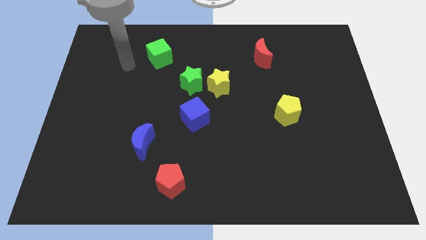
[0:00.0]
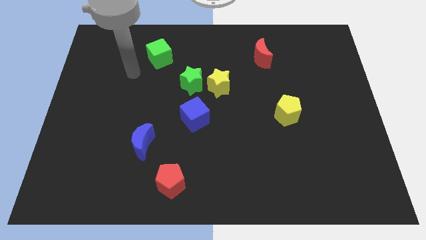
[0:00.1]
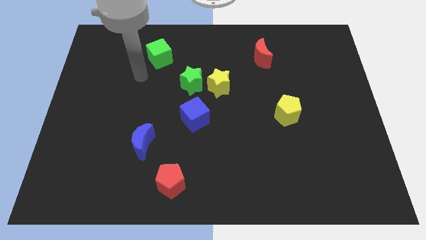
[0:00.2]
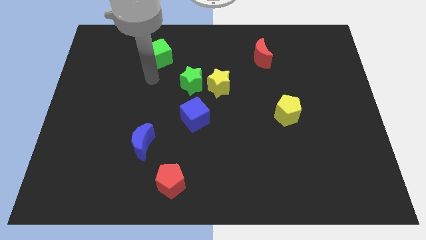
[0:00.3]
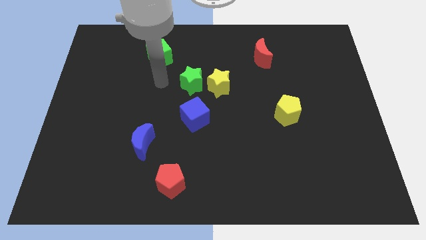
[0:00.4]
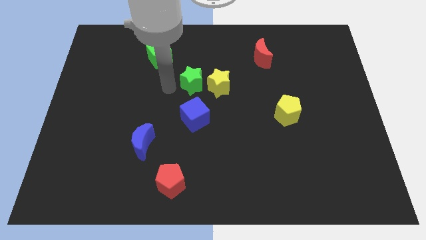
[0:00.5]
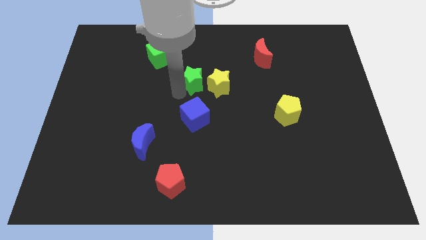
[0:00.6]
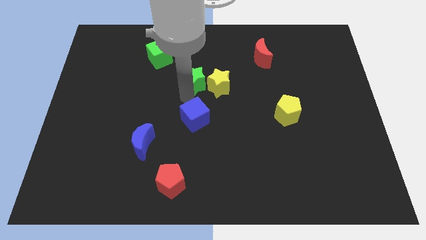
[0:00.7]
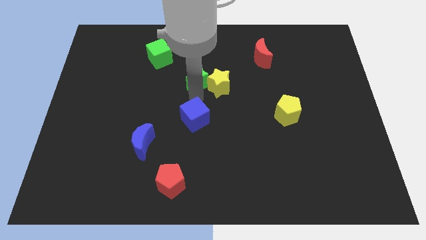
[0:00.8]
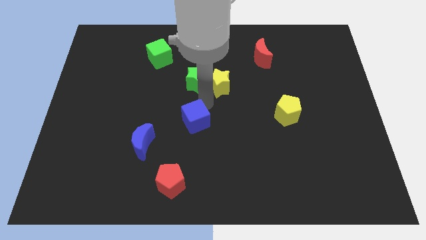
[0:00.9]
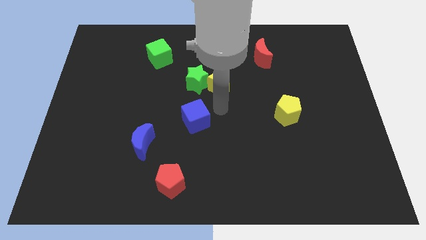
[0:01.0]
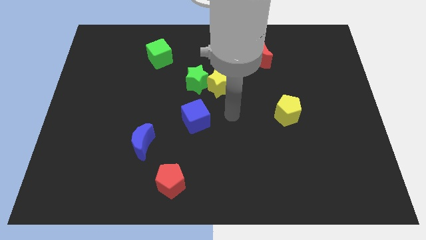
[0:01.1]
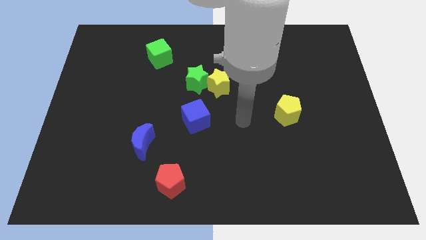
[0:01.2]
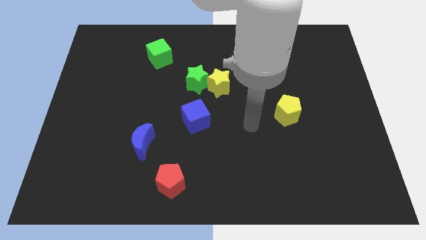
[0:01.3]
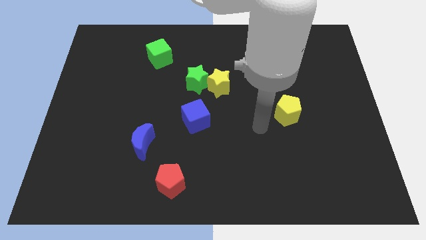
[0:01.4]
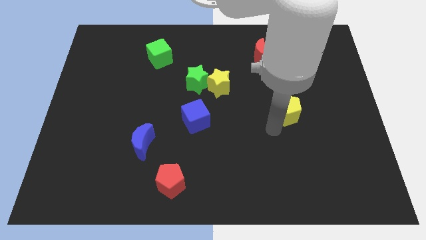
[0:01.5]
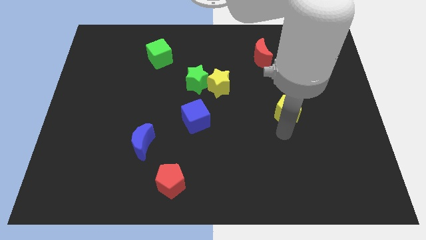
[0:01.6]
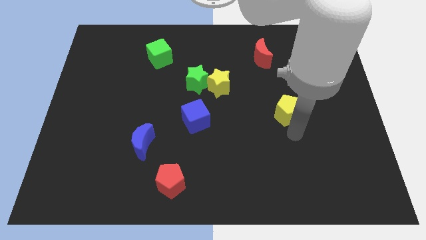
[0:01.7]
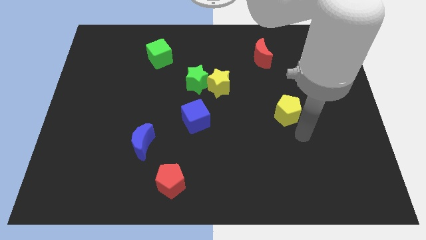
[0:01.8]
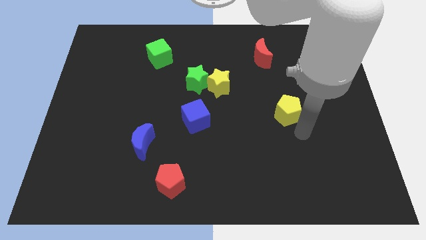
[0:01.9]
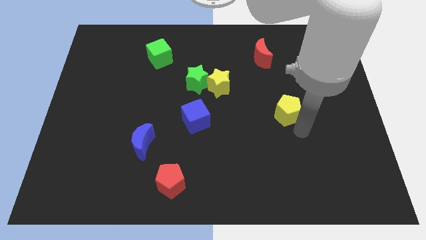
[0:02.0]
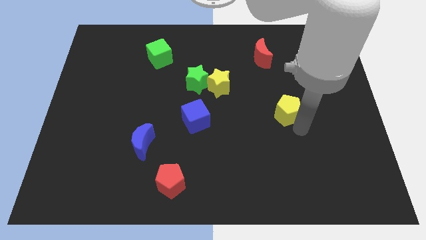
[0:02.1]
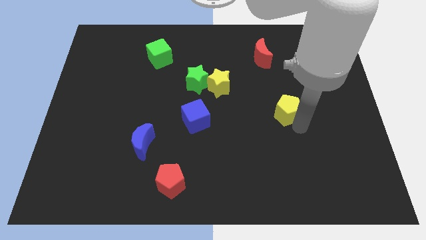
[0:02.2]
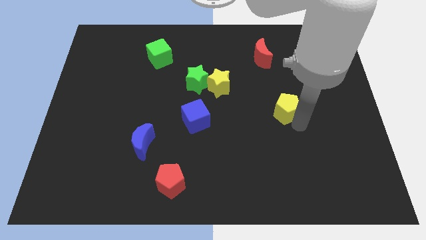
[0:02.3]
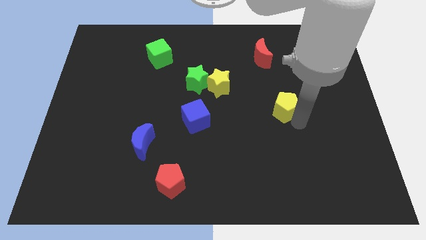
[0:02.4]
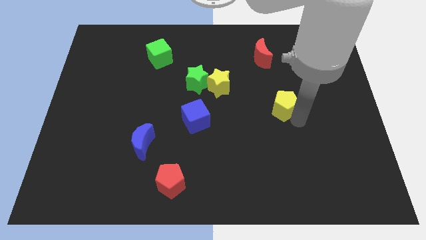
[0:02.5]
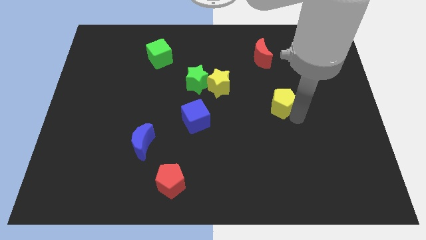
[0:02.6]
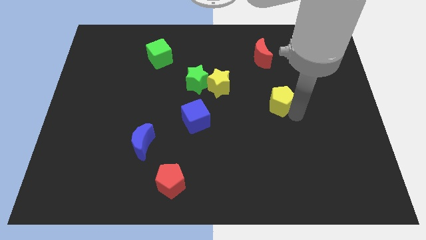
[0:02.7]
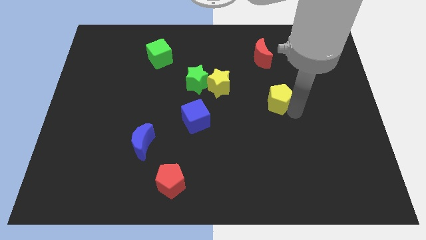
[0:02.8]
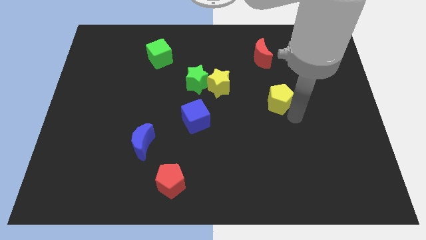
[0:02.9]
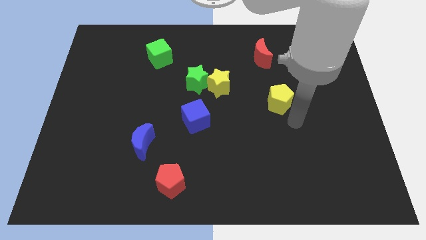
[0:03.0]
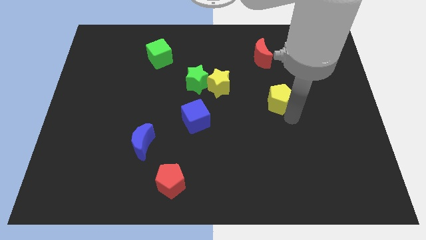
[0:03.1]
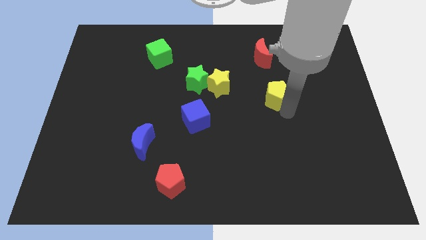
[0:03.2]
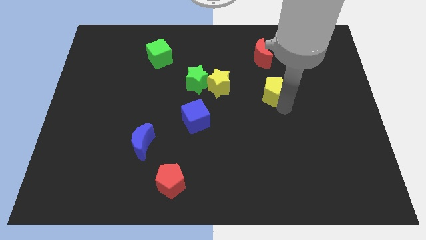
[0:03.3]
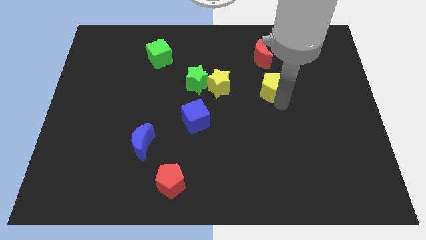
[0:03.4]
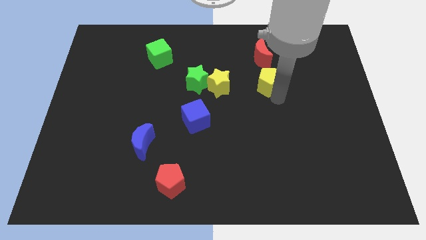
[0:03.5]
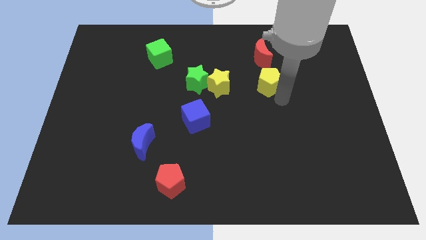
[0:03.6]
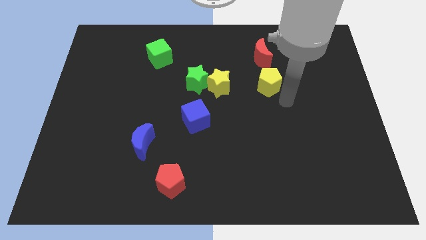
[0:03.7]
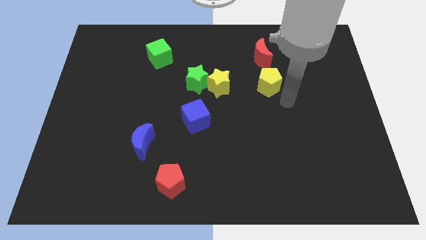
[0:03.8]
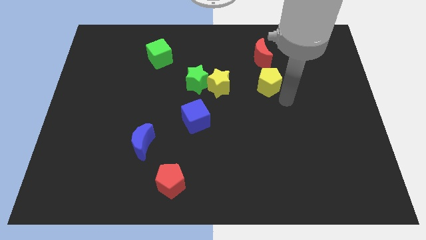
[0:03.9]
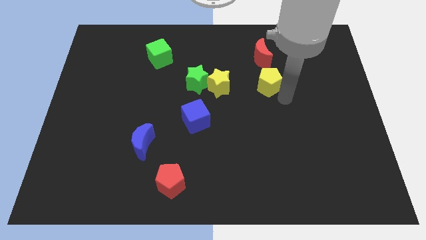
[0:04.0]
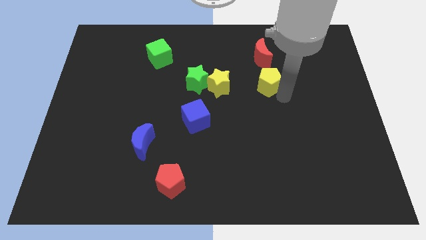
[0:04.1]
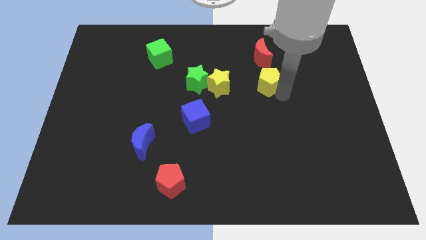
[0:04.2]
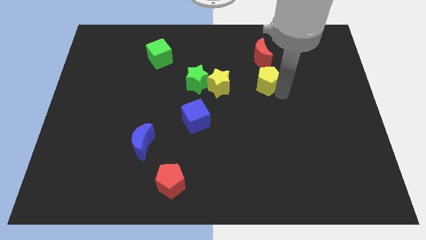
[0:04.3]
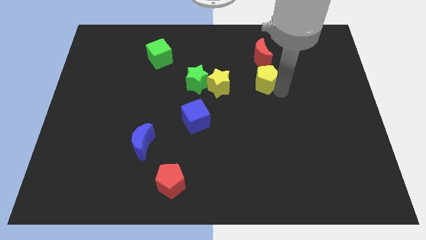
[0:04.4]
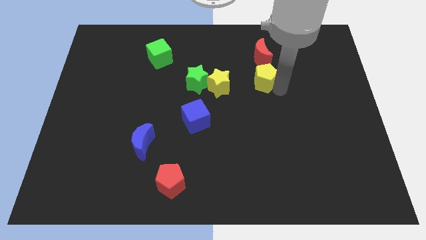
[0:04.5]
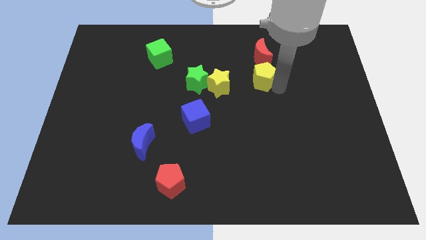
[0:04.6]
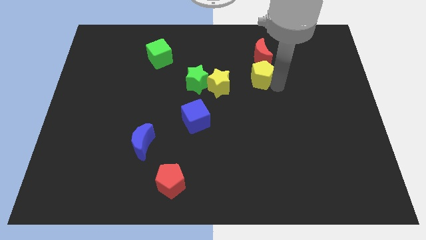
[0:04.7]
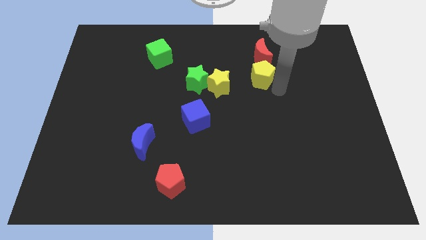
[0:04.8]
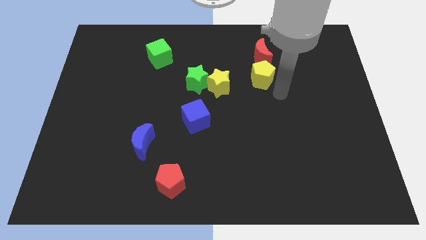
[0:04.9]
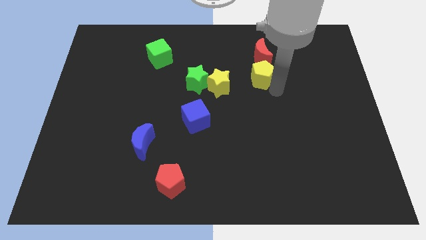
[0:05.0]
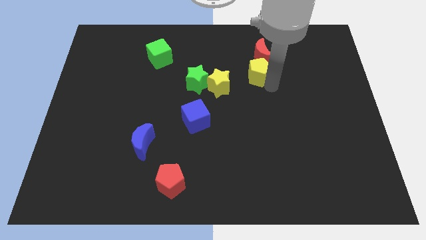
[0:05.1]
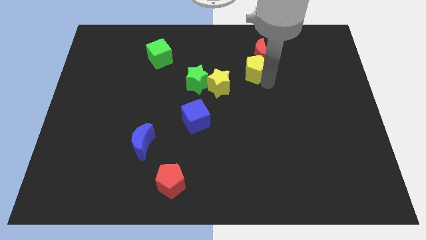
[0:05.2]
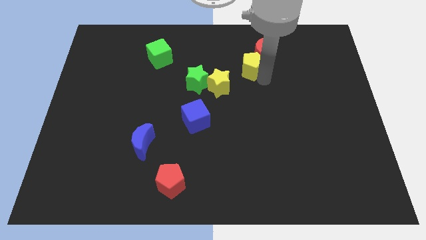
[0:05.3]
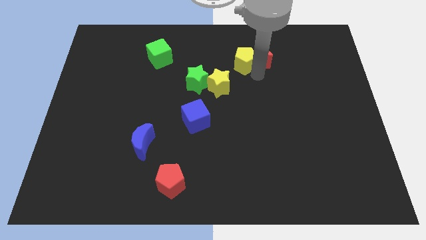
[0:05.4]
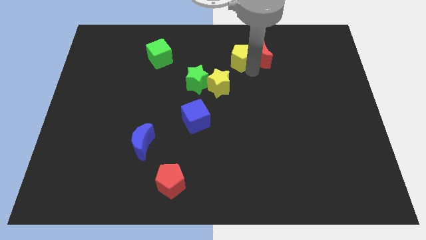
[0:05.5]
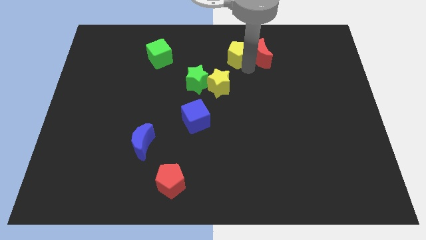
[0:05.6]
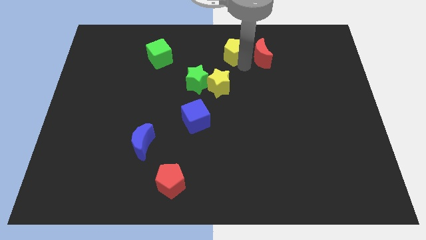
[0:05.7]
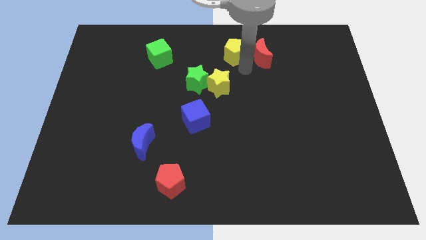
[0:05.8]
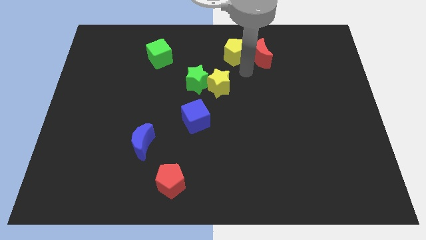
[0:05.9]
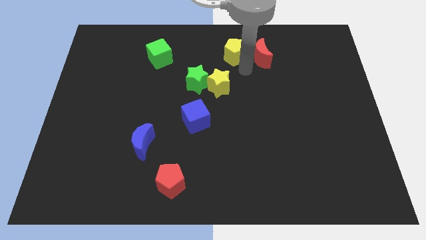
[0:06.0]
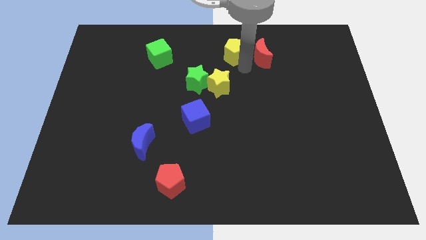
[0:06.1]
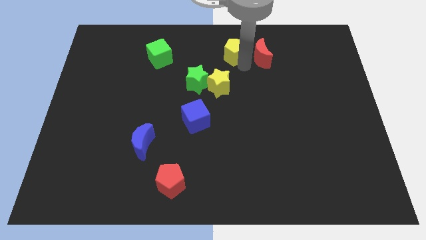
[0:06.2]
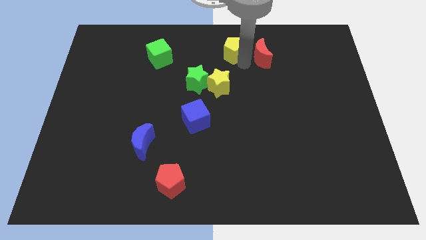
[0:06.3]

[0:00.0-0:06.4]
slide the yellow pentagon to the top

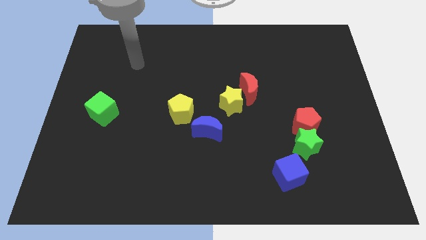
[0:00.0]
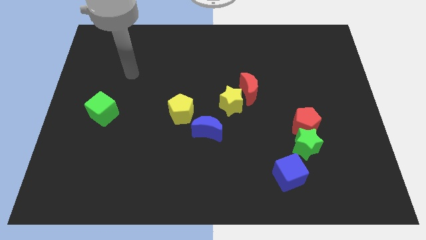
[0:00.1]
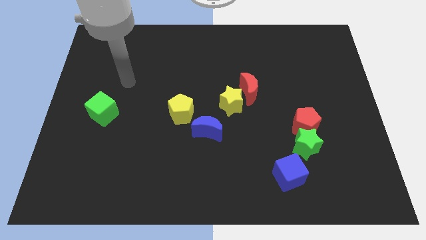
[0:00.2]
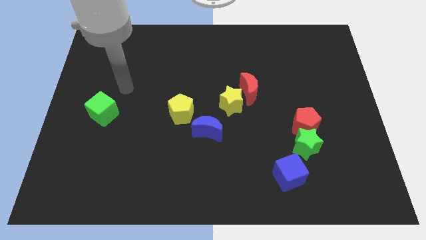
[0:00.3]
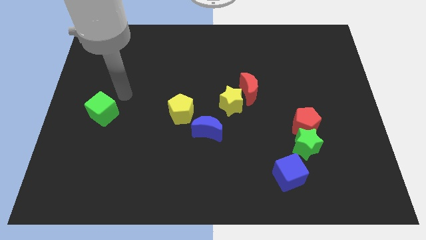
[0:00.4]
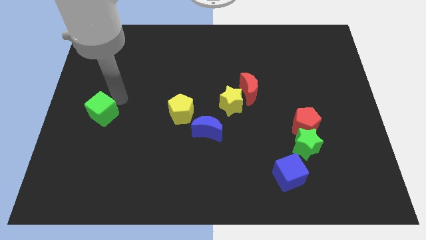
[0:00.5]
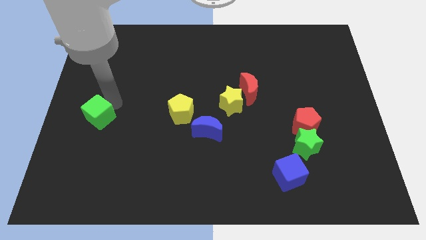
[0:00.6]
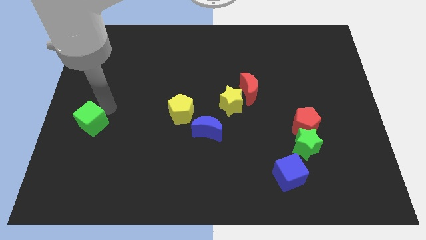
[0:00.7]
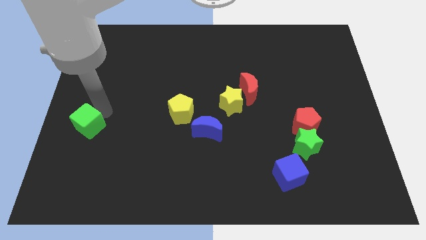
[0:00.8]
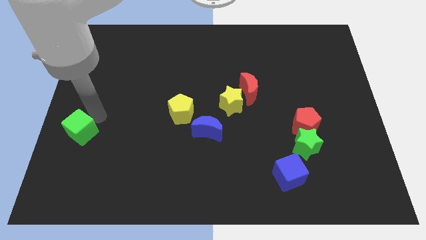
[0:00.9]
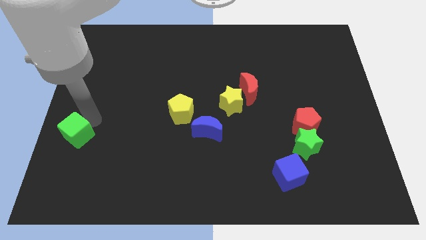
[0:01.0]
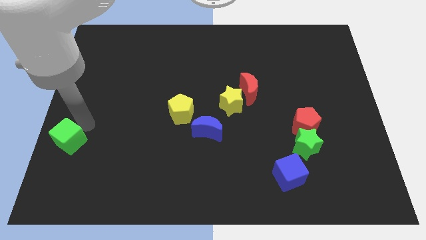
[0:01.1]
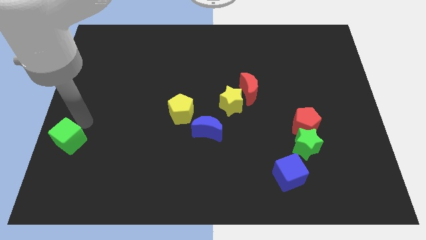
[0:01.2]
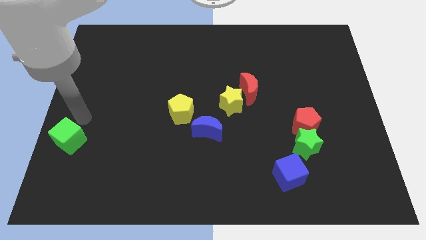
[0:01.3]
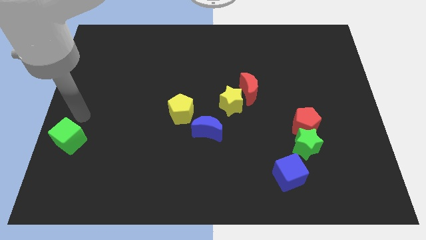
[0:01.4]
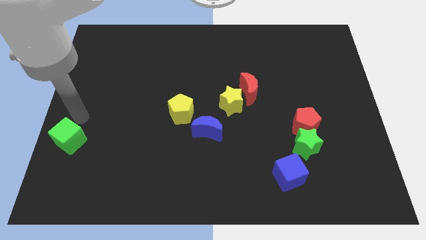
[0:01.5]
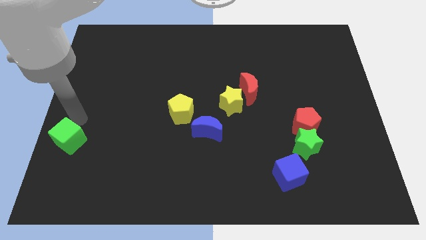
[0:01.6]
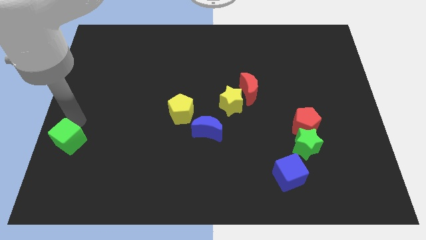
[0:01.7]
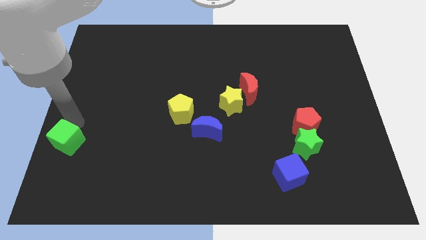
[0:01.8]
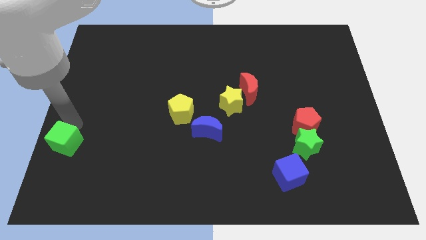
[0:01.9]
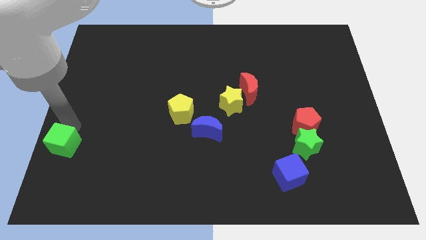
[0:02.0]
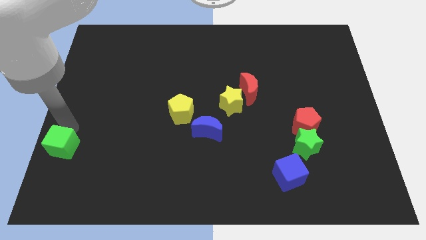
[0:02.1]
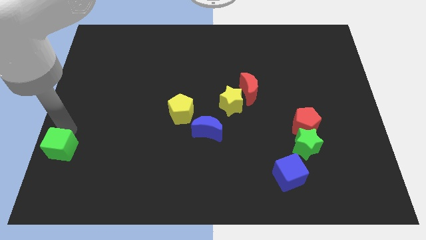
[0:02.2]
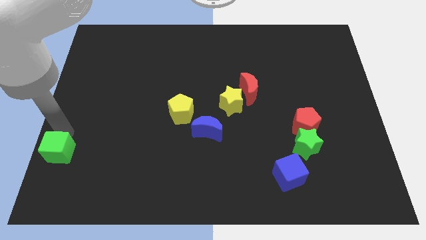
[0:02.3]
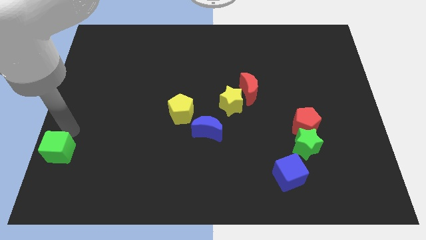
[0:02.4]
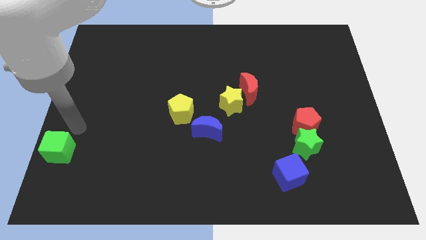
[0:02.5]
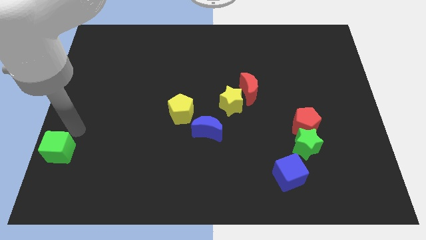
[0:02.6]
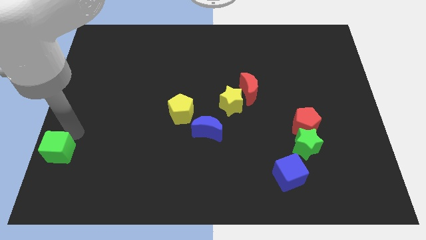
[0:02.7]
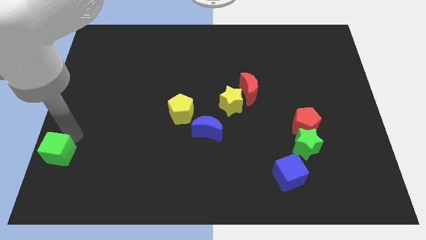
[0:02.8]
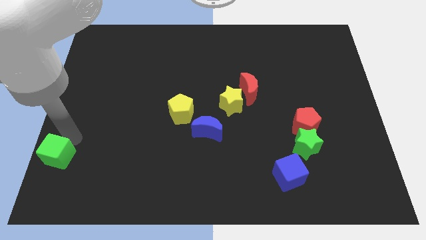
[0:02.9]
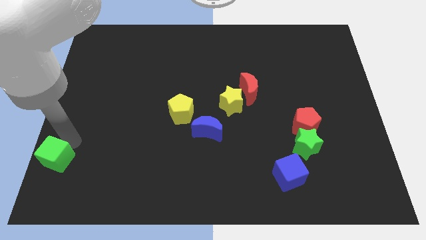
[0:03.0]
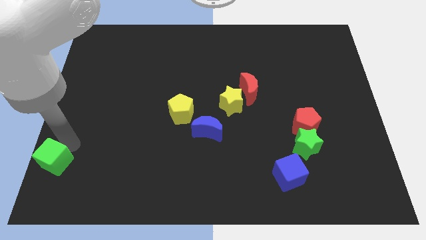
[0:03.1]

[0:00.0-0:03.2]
slide the green cube to the lower left corner
